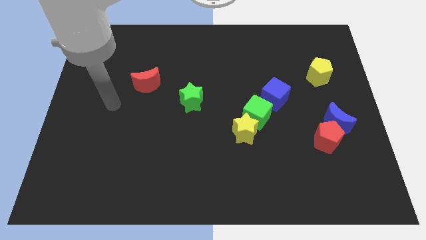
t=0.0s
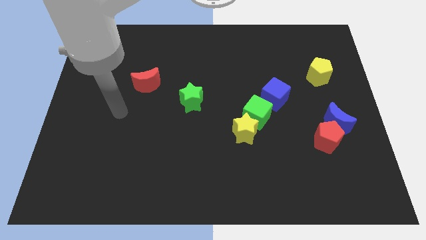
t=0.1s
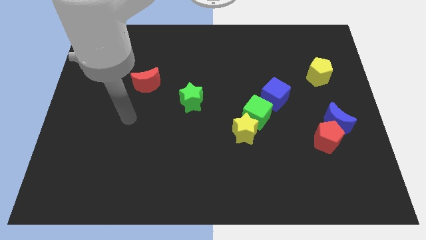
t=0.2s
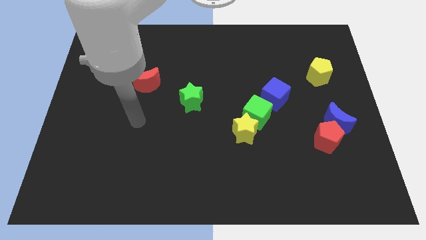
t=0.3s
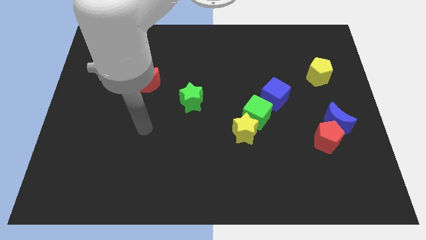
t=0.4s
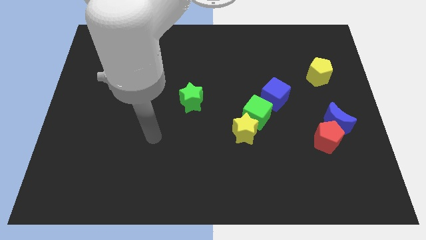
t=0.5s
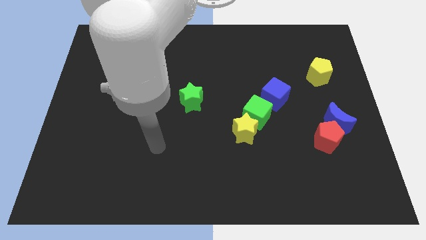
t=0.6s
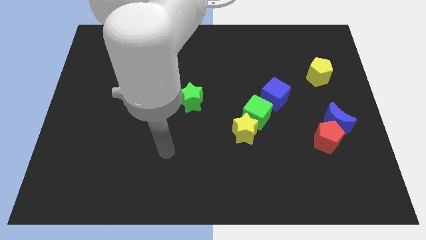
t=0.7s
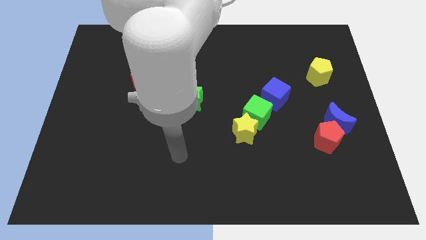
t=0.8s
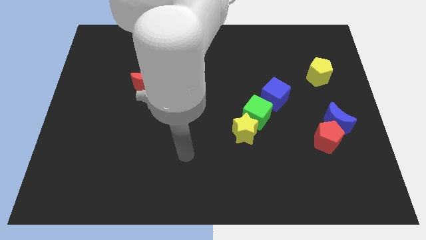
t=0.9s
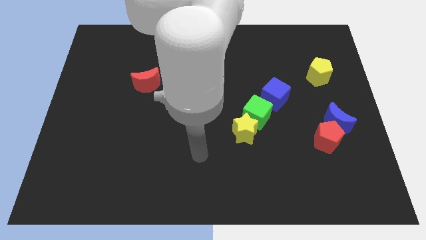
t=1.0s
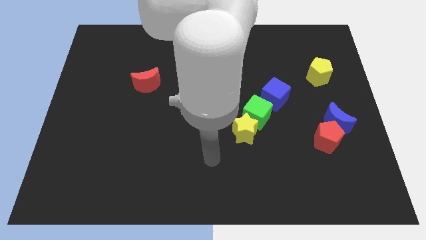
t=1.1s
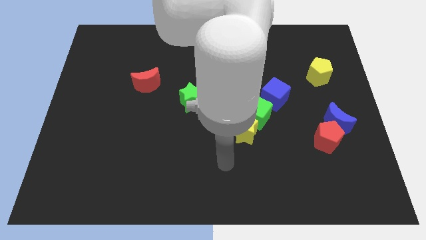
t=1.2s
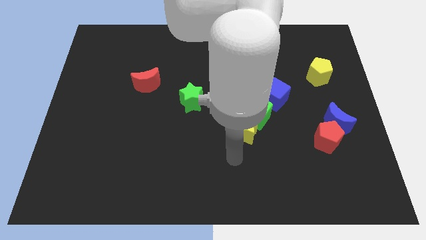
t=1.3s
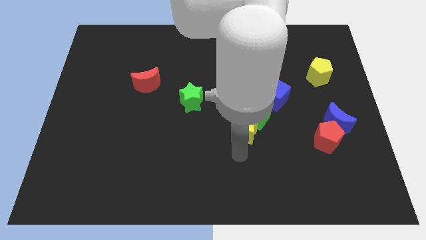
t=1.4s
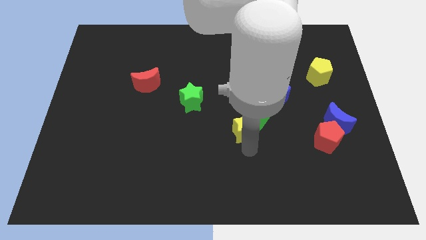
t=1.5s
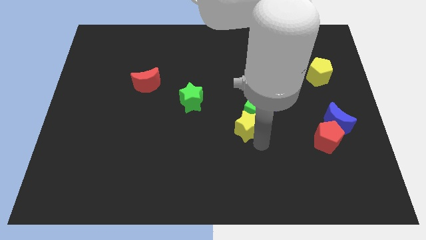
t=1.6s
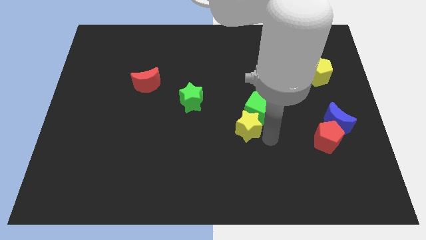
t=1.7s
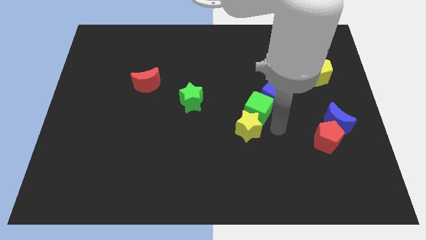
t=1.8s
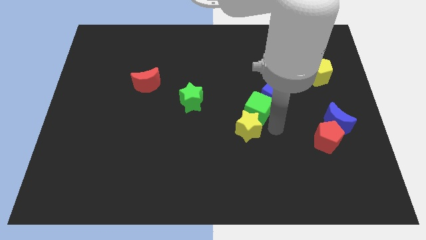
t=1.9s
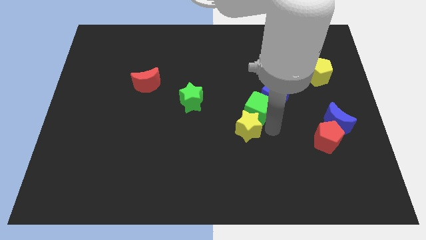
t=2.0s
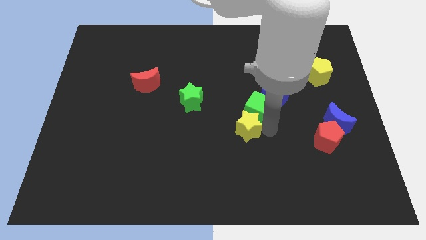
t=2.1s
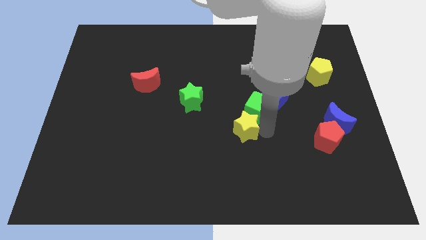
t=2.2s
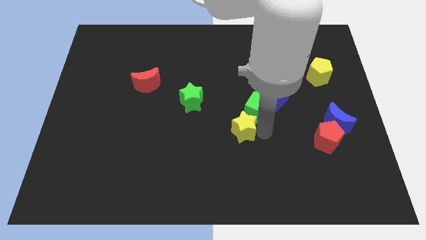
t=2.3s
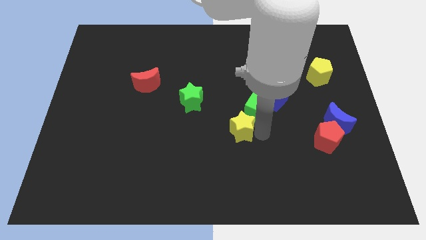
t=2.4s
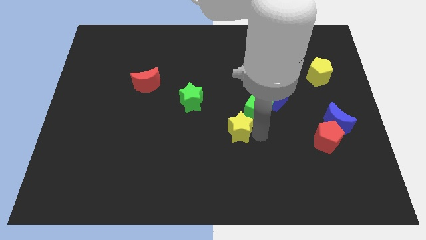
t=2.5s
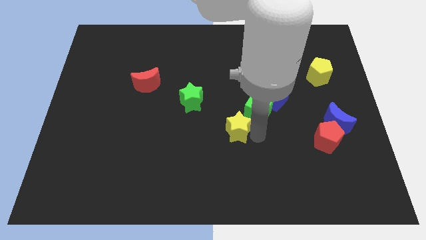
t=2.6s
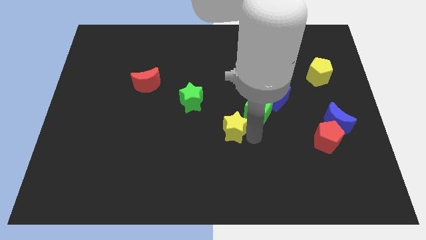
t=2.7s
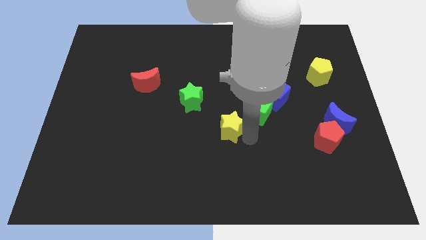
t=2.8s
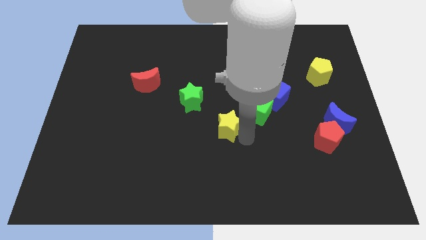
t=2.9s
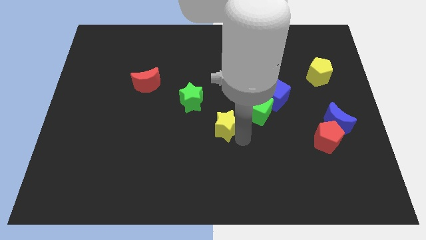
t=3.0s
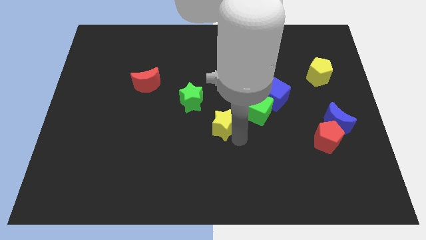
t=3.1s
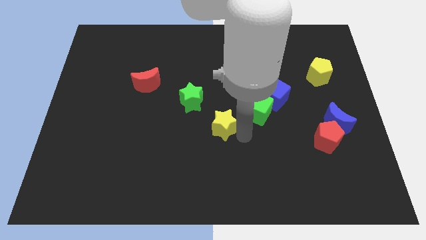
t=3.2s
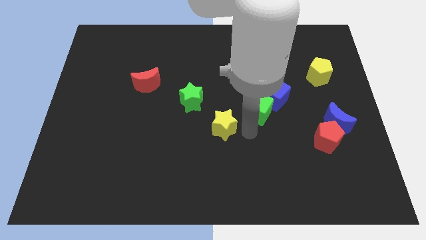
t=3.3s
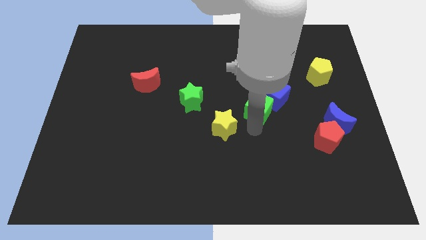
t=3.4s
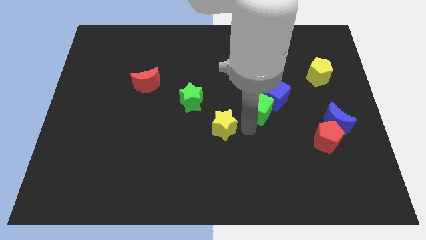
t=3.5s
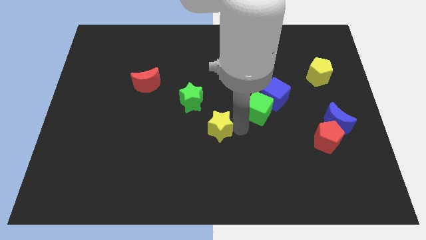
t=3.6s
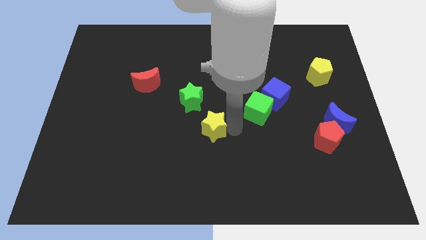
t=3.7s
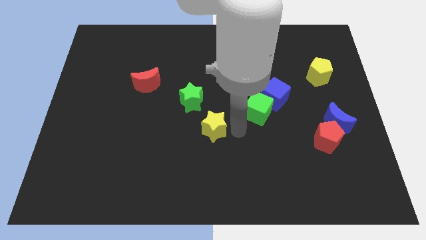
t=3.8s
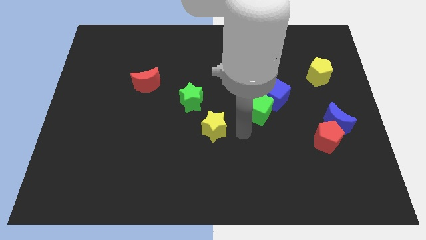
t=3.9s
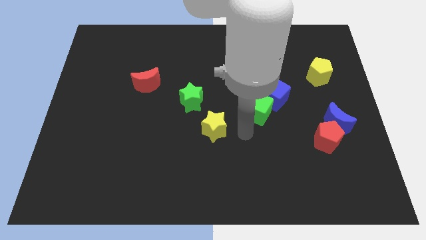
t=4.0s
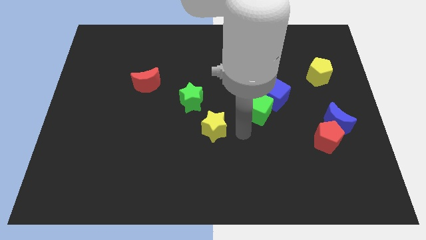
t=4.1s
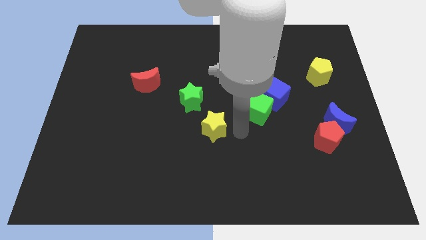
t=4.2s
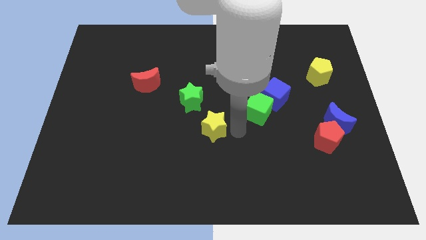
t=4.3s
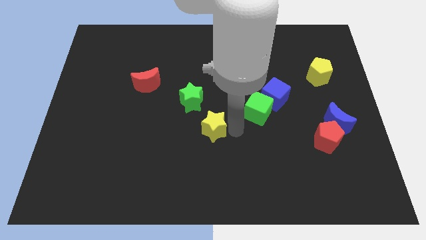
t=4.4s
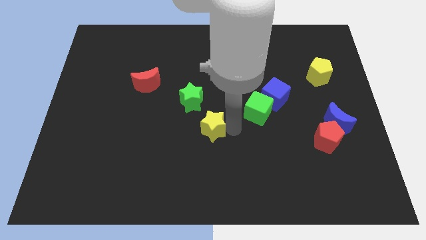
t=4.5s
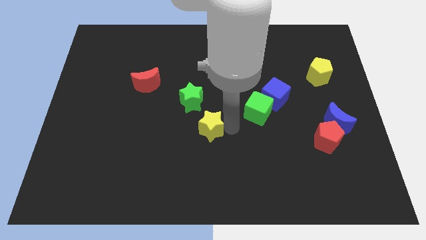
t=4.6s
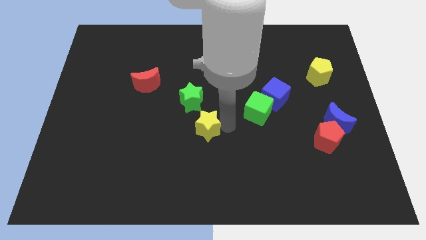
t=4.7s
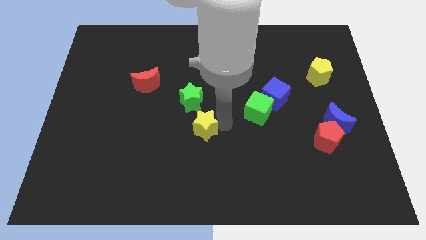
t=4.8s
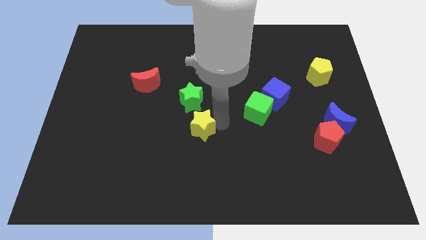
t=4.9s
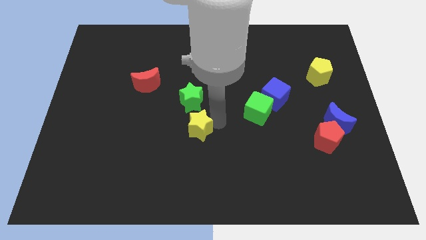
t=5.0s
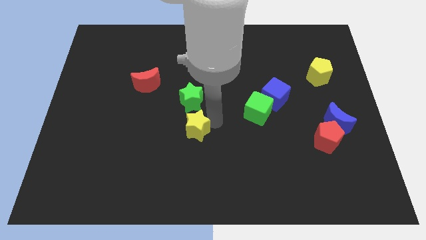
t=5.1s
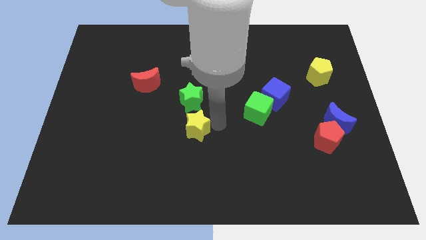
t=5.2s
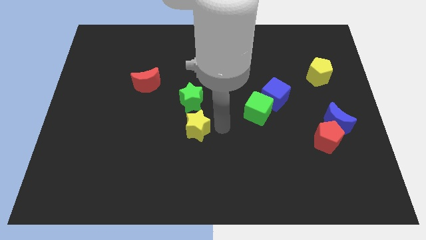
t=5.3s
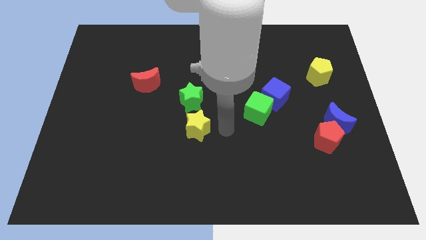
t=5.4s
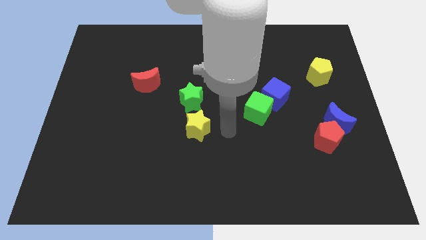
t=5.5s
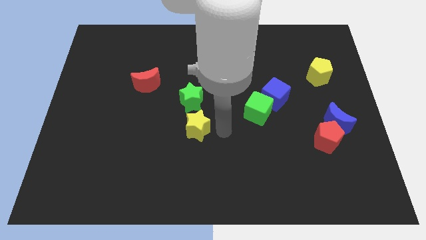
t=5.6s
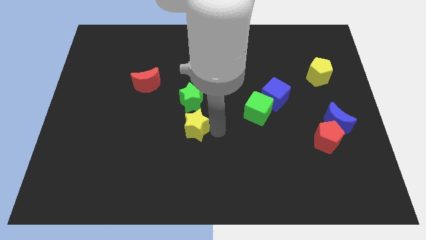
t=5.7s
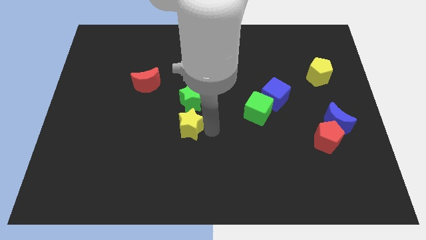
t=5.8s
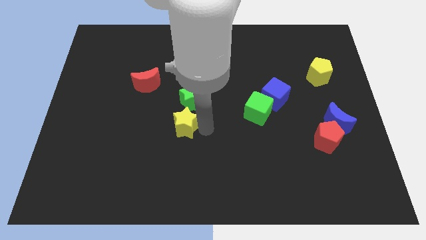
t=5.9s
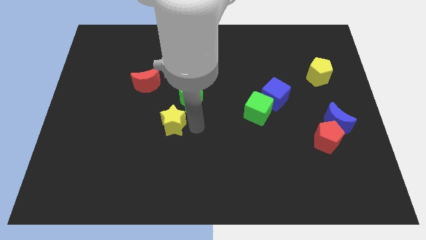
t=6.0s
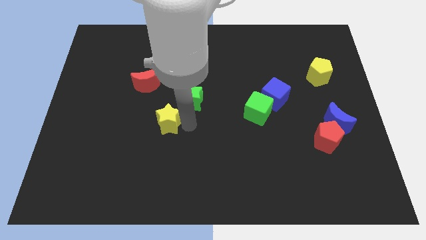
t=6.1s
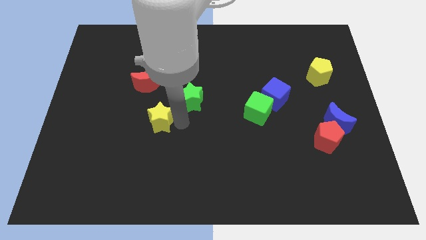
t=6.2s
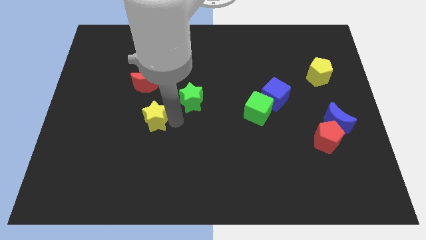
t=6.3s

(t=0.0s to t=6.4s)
slide the yellow star left

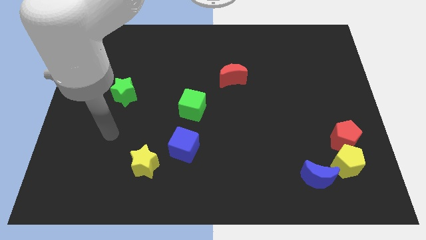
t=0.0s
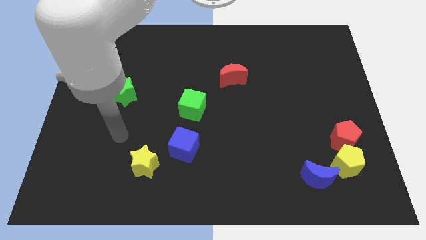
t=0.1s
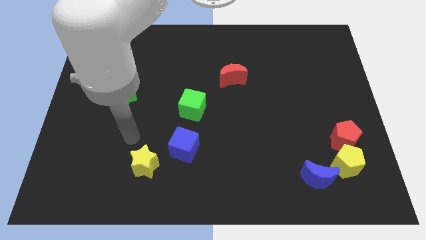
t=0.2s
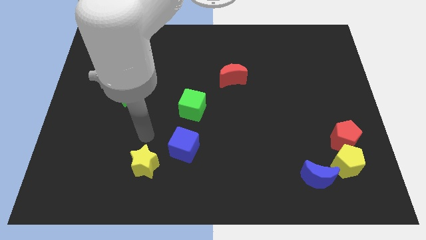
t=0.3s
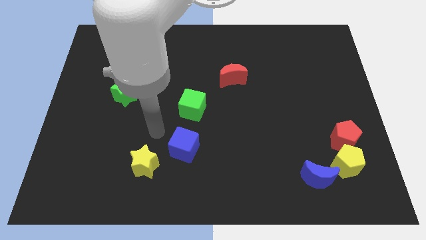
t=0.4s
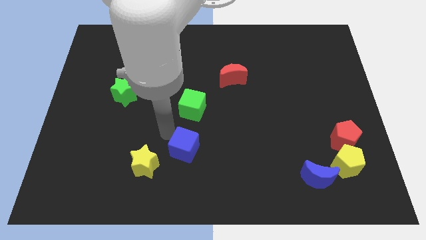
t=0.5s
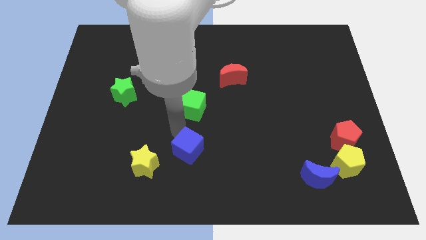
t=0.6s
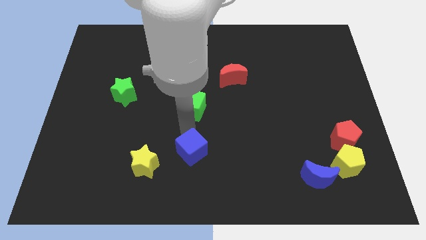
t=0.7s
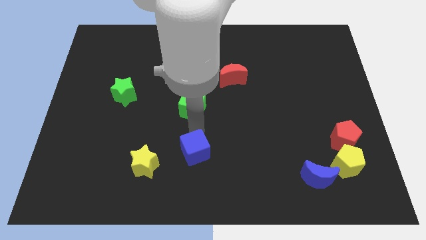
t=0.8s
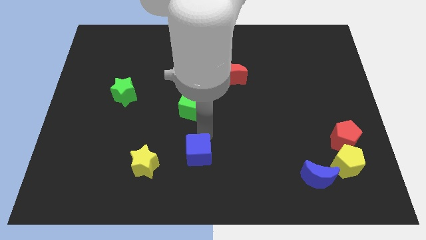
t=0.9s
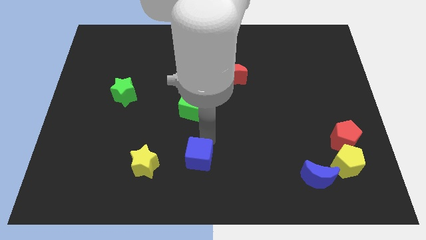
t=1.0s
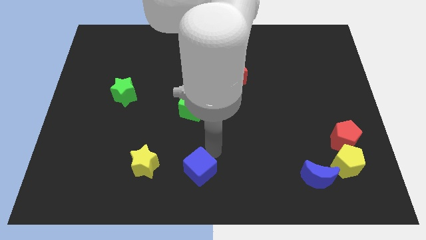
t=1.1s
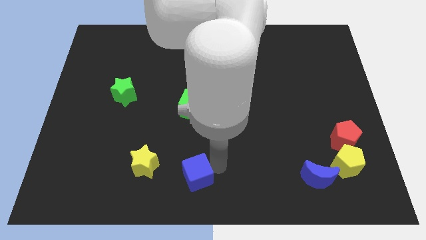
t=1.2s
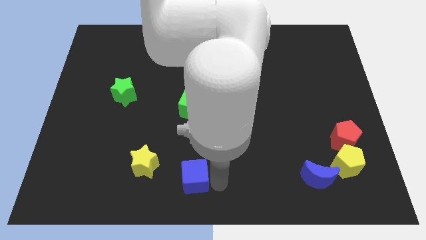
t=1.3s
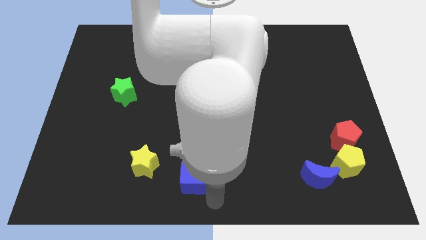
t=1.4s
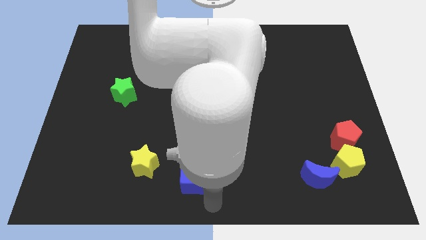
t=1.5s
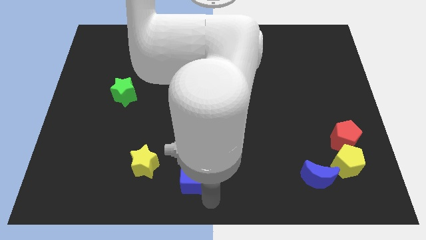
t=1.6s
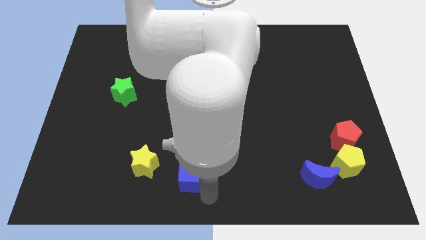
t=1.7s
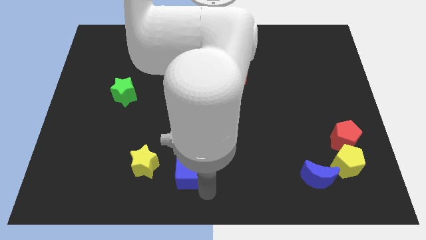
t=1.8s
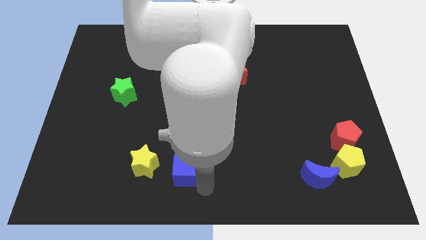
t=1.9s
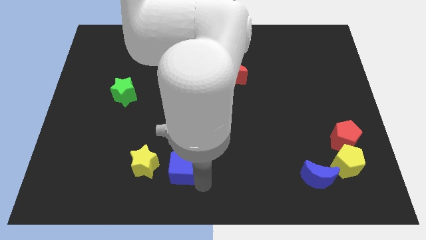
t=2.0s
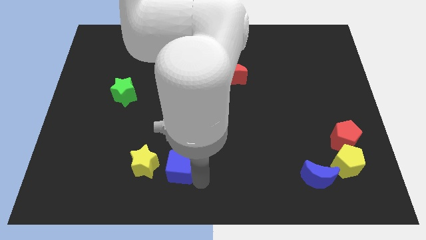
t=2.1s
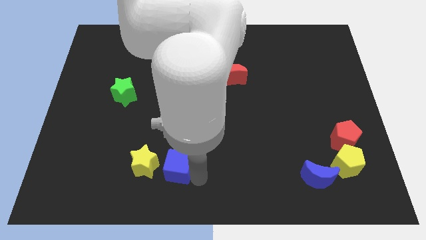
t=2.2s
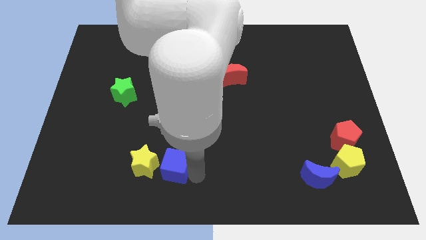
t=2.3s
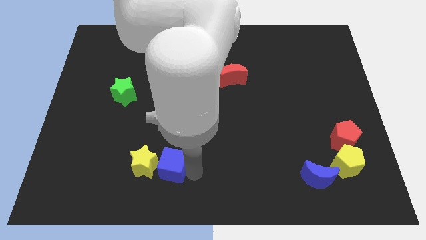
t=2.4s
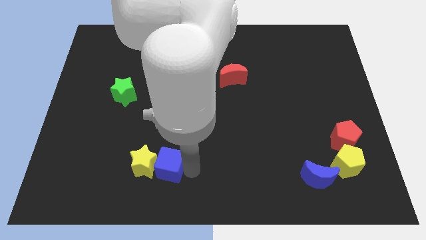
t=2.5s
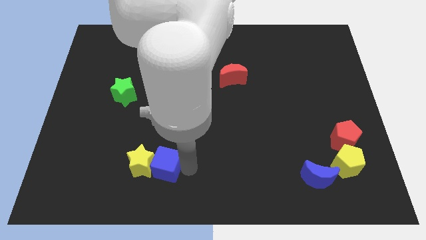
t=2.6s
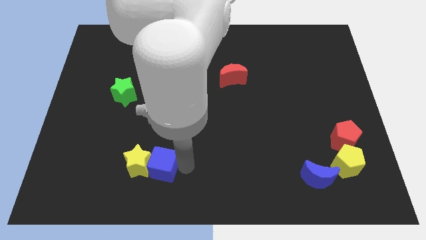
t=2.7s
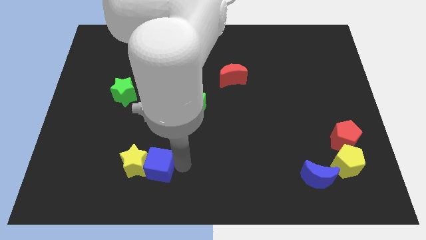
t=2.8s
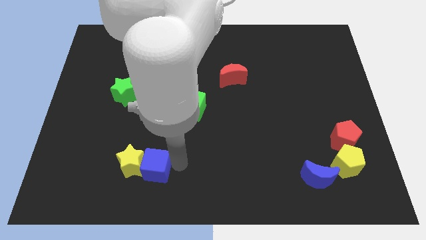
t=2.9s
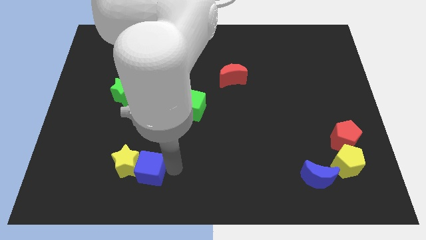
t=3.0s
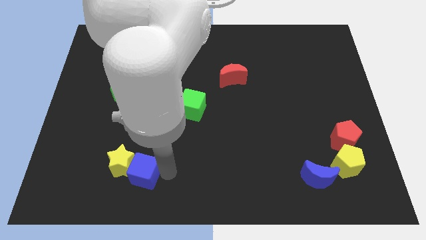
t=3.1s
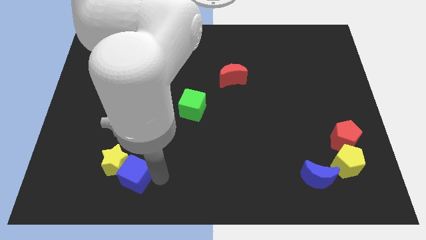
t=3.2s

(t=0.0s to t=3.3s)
push the blue cube a bit to the left
